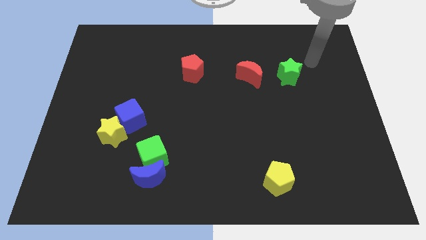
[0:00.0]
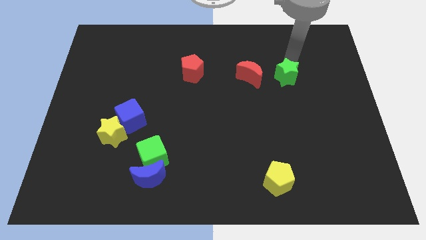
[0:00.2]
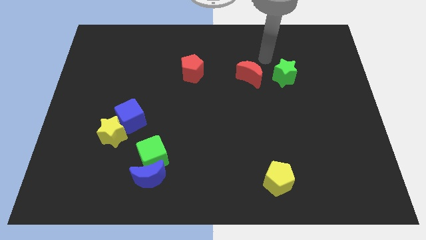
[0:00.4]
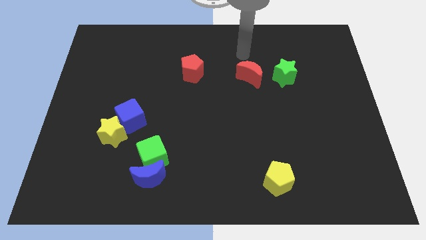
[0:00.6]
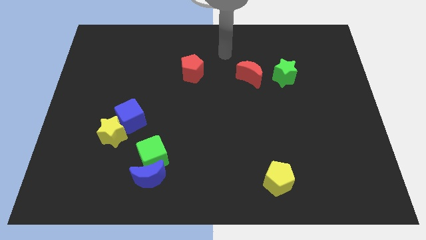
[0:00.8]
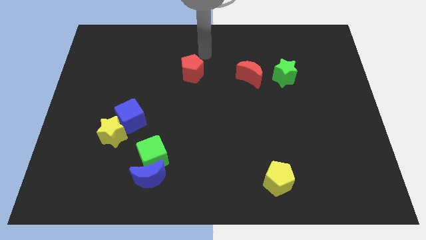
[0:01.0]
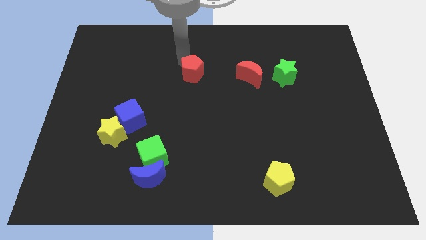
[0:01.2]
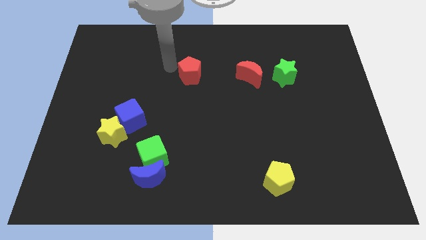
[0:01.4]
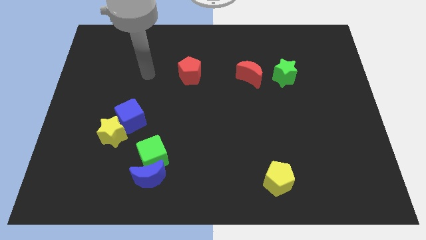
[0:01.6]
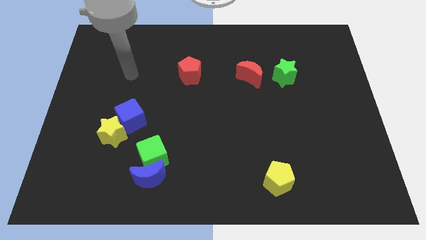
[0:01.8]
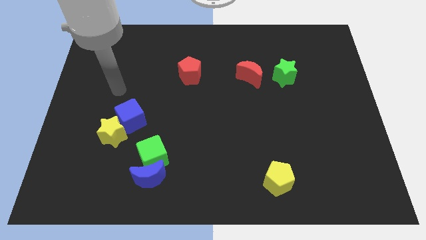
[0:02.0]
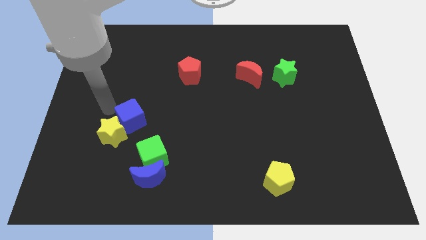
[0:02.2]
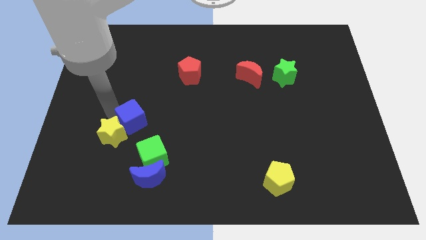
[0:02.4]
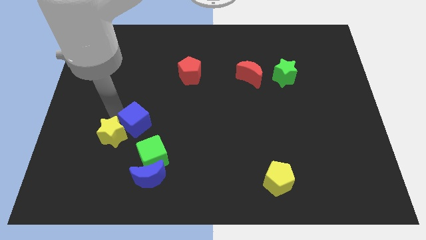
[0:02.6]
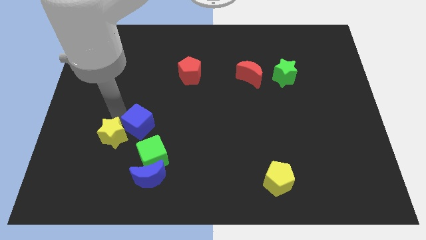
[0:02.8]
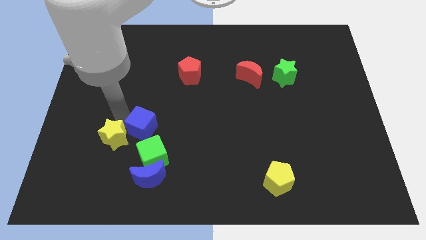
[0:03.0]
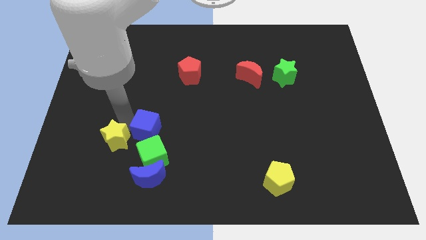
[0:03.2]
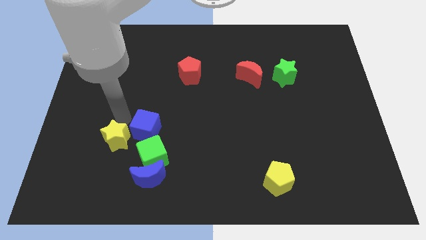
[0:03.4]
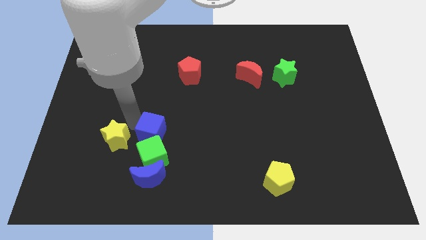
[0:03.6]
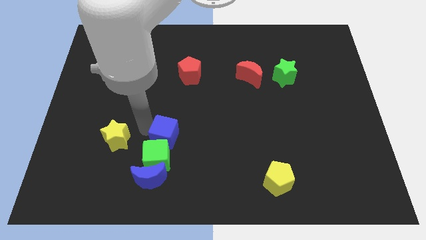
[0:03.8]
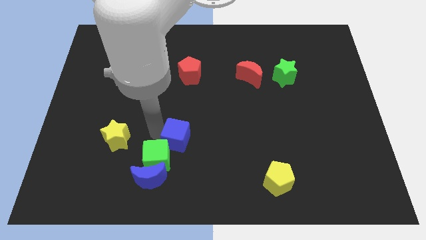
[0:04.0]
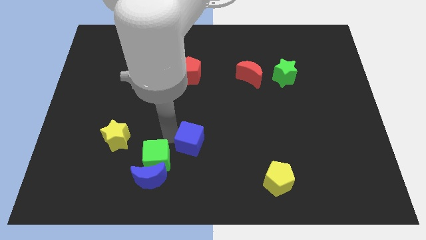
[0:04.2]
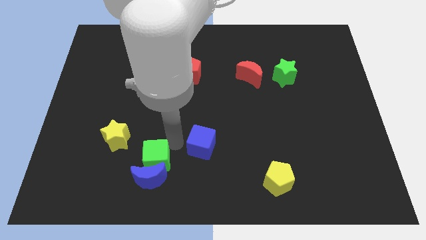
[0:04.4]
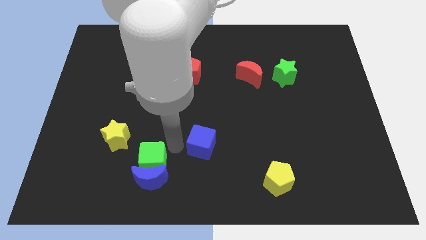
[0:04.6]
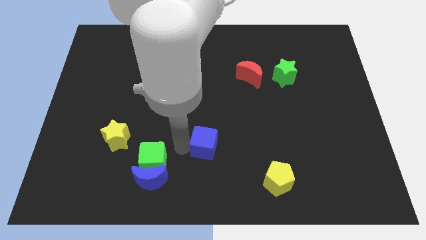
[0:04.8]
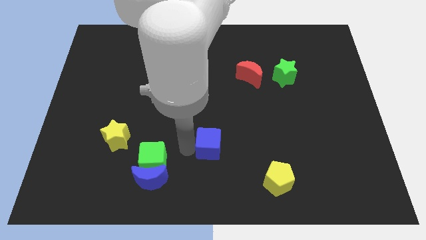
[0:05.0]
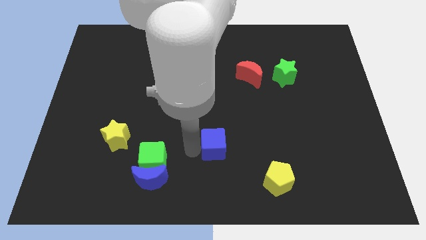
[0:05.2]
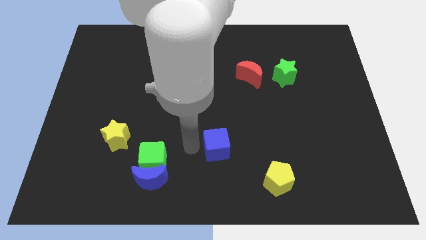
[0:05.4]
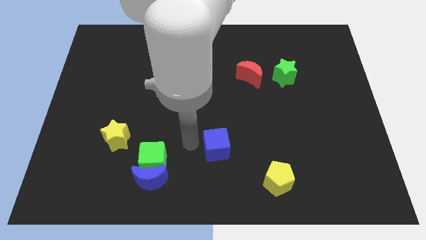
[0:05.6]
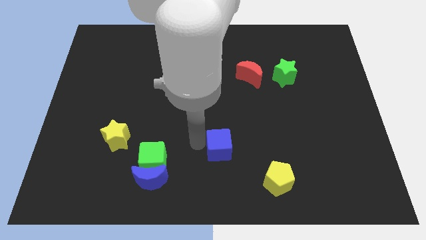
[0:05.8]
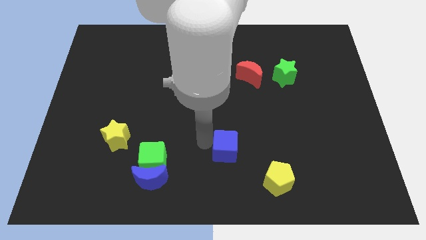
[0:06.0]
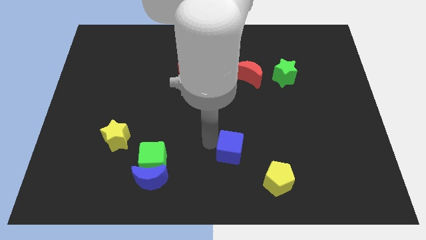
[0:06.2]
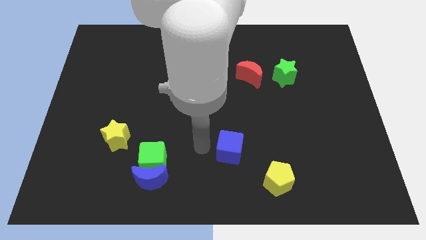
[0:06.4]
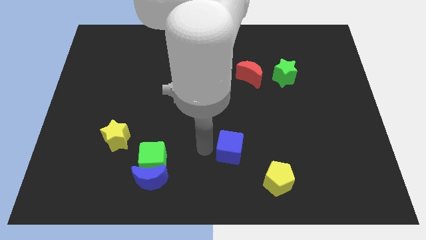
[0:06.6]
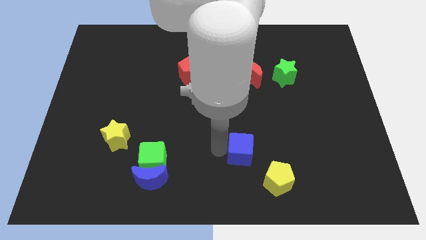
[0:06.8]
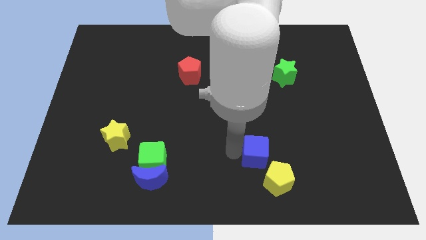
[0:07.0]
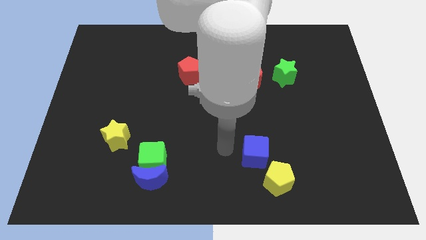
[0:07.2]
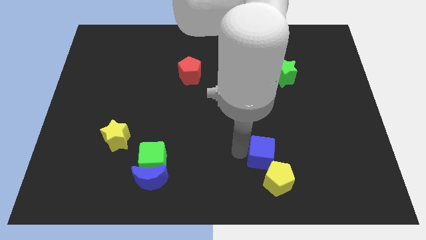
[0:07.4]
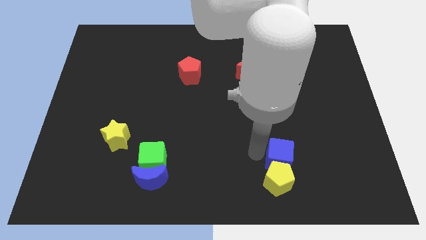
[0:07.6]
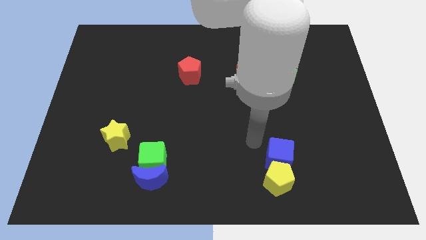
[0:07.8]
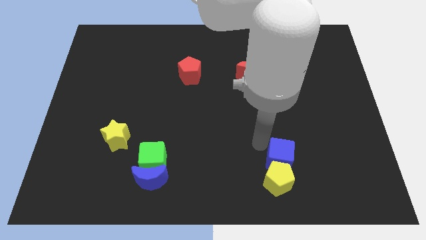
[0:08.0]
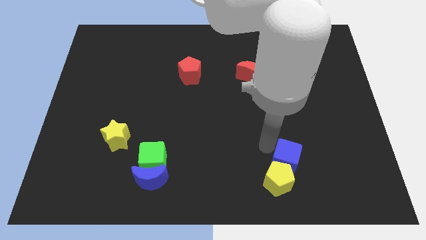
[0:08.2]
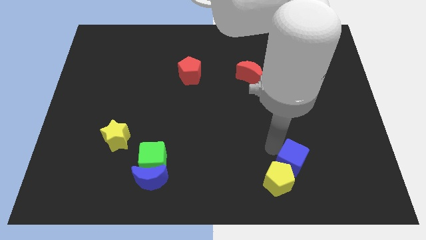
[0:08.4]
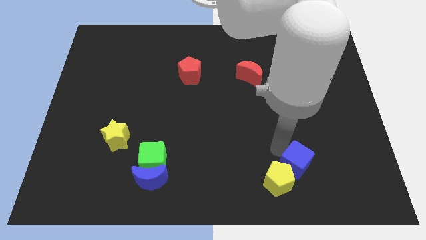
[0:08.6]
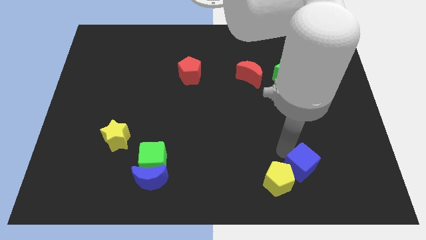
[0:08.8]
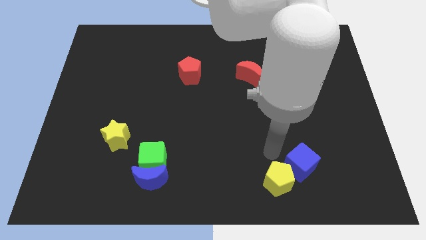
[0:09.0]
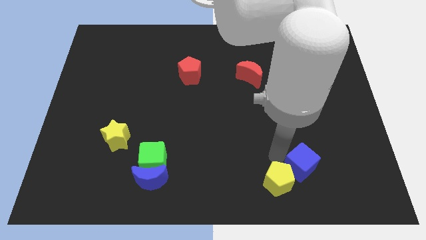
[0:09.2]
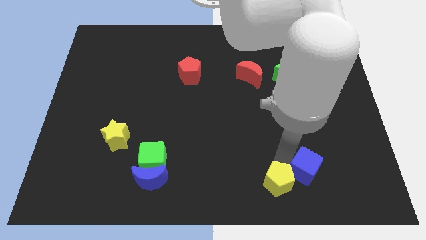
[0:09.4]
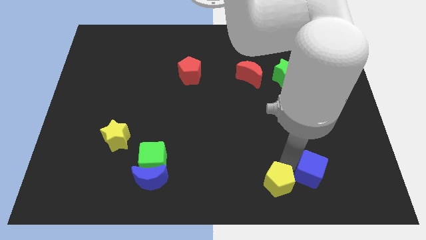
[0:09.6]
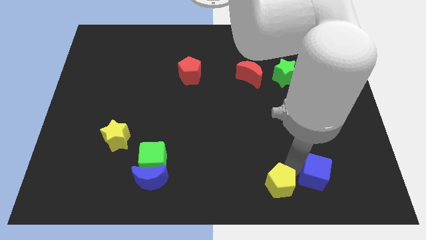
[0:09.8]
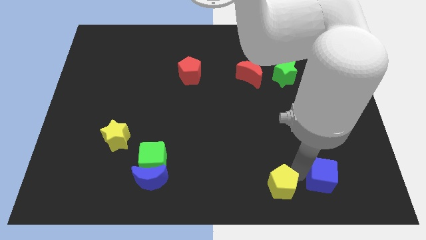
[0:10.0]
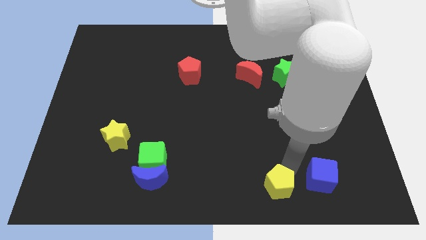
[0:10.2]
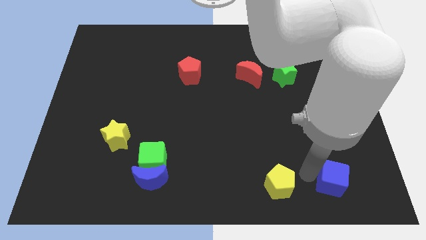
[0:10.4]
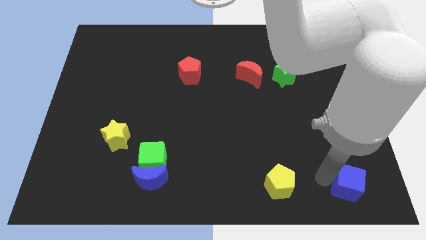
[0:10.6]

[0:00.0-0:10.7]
push the blue cube to the lower right corner
